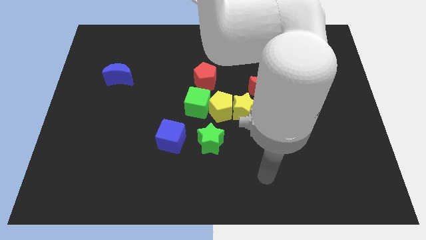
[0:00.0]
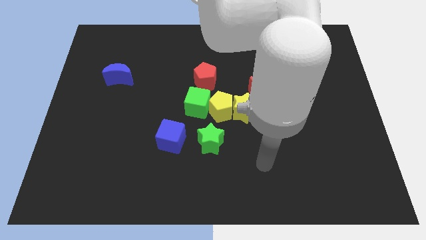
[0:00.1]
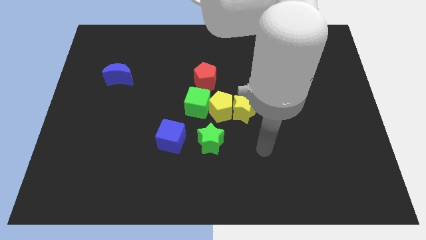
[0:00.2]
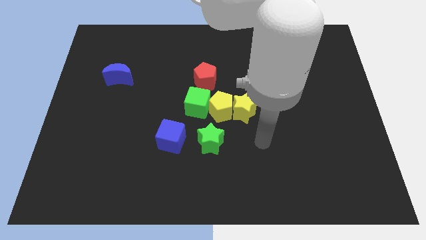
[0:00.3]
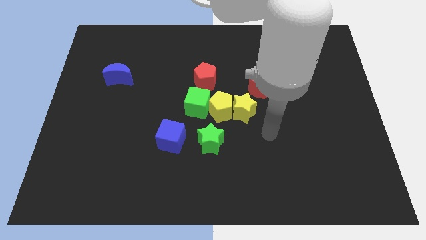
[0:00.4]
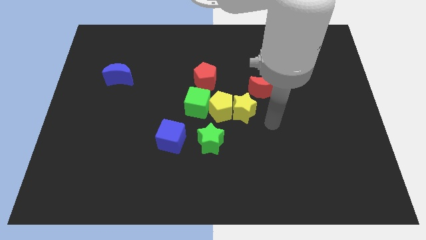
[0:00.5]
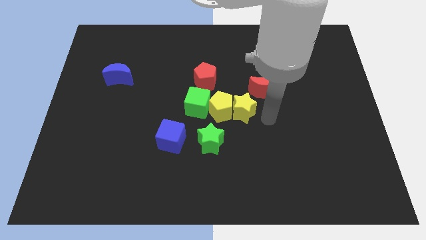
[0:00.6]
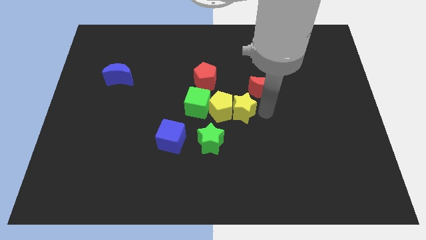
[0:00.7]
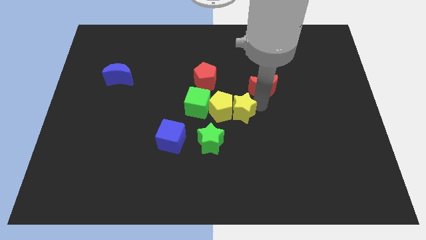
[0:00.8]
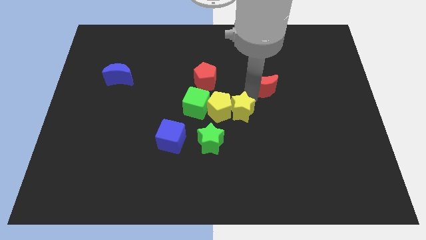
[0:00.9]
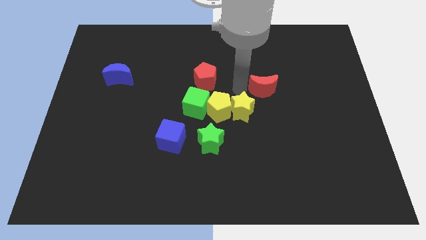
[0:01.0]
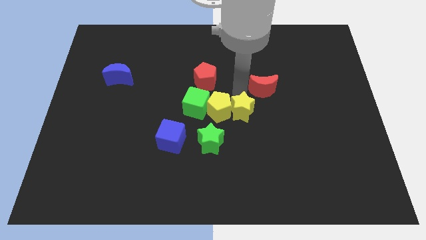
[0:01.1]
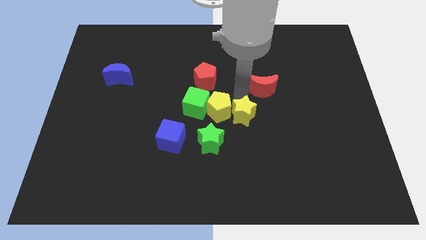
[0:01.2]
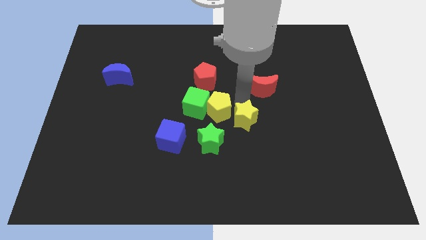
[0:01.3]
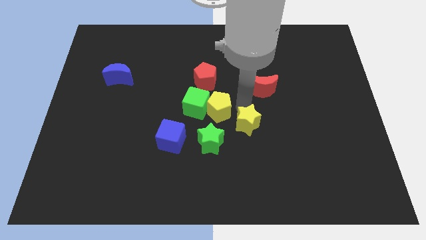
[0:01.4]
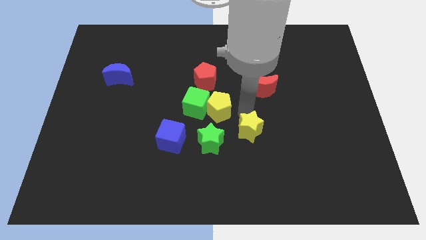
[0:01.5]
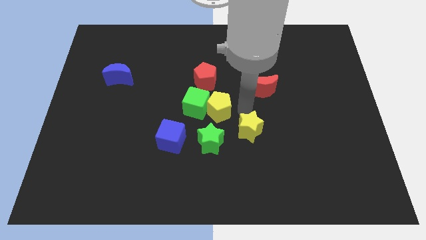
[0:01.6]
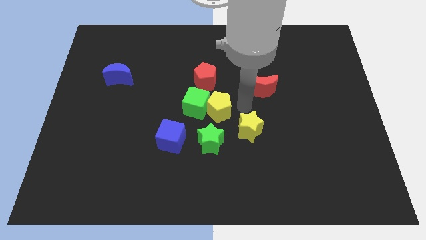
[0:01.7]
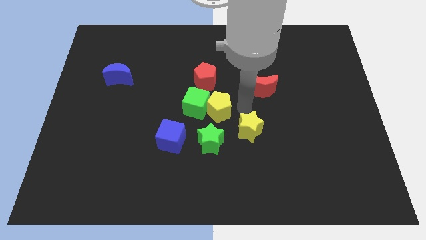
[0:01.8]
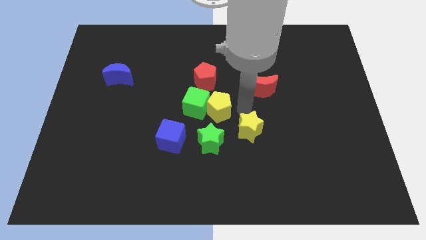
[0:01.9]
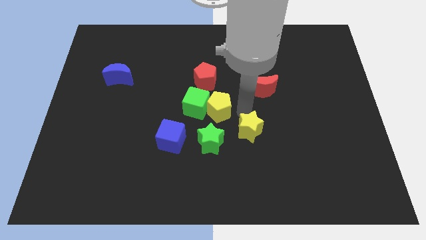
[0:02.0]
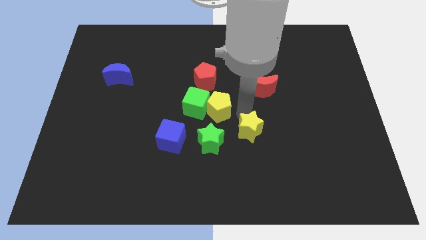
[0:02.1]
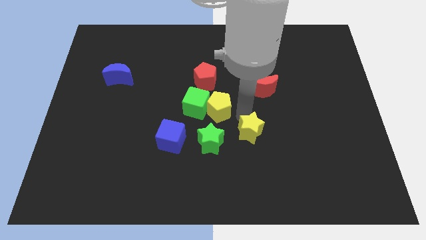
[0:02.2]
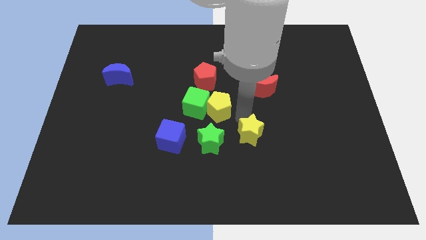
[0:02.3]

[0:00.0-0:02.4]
separate the yellow star from the yellow pentagon and red moon

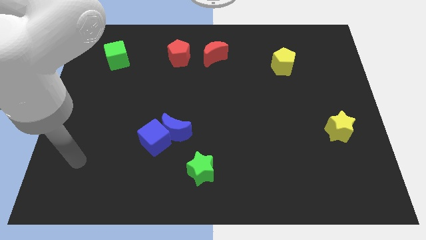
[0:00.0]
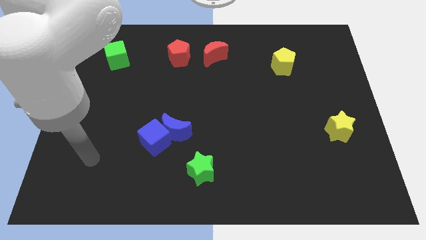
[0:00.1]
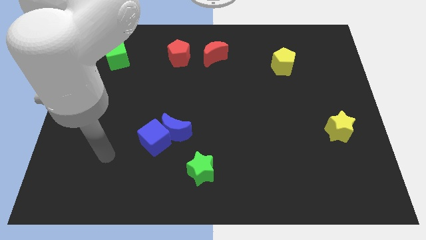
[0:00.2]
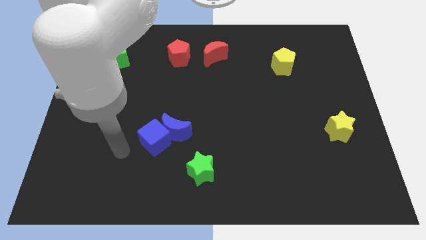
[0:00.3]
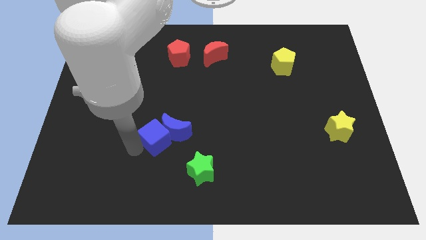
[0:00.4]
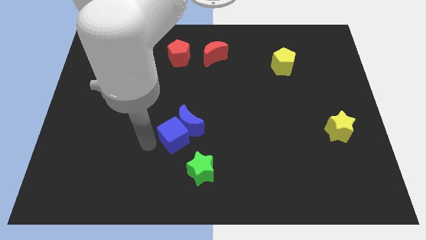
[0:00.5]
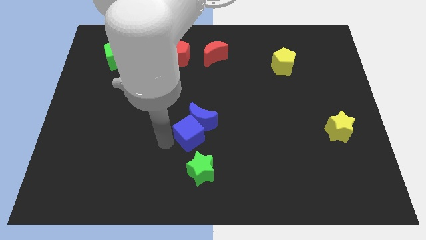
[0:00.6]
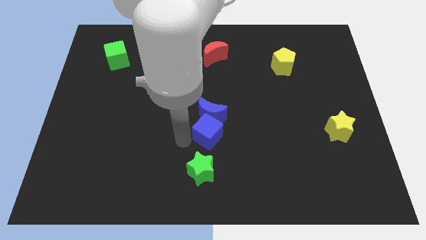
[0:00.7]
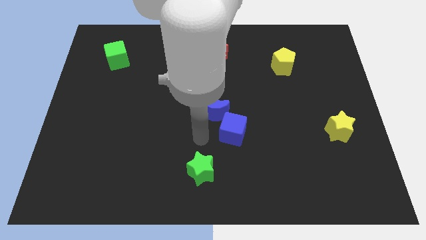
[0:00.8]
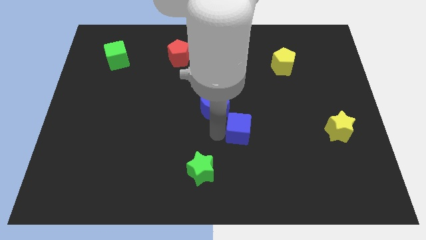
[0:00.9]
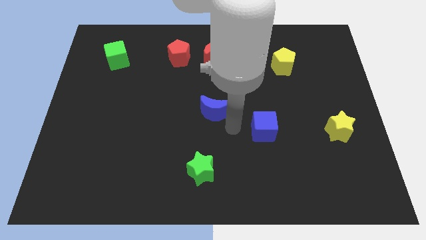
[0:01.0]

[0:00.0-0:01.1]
move the blue moon away from the blue cube

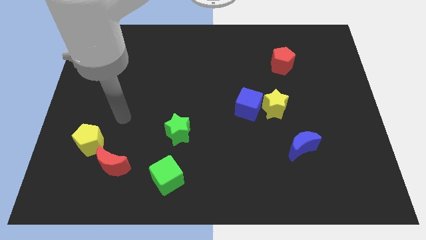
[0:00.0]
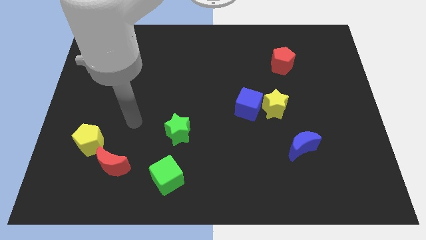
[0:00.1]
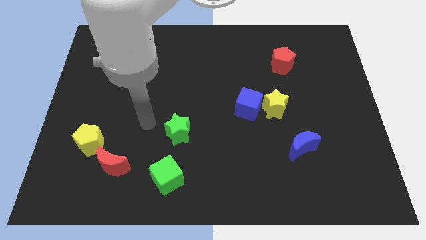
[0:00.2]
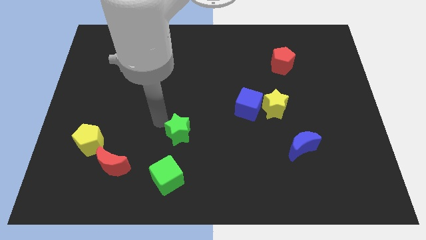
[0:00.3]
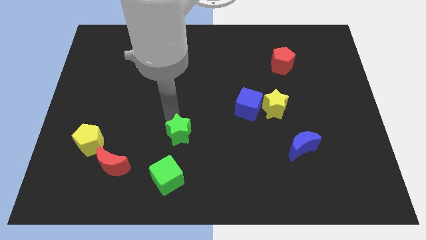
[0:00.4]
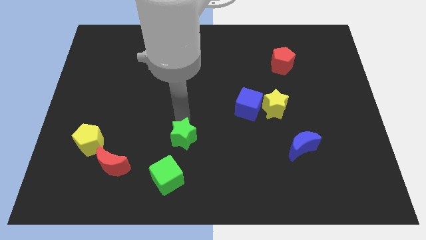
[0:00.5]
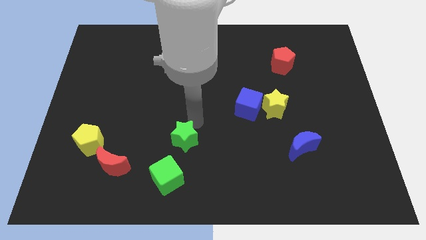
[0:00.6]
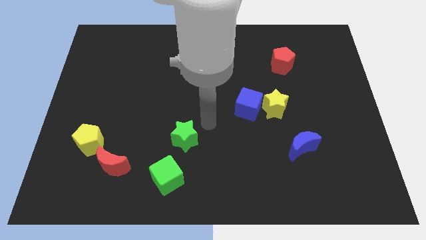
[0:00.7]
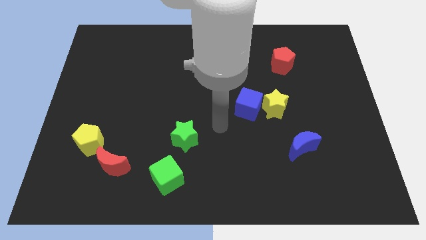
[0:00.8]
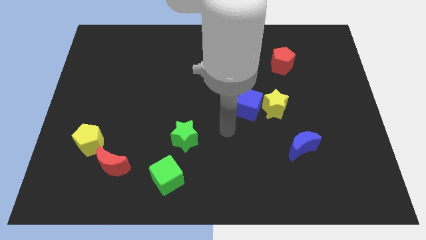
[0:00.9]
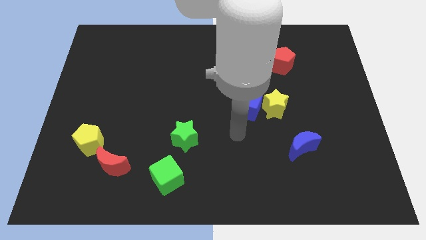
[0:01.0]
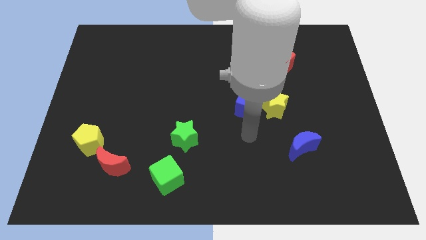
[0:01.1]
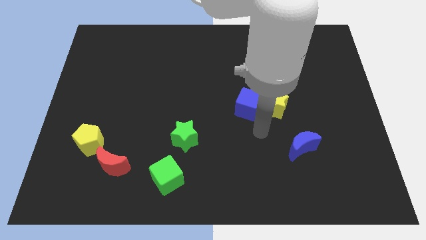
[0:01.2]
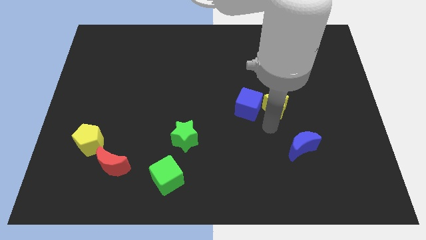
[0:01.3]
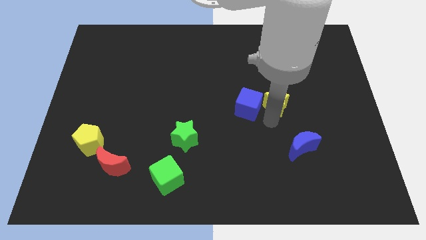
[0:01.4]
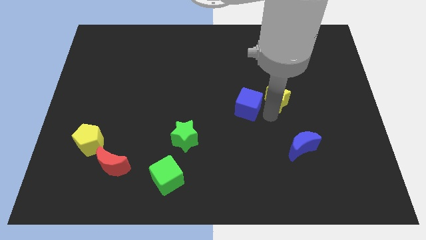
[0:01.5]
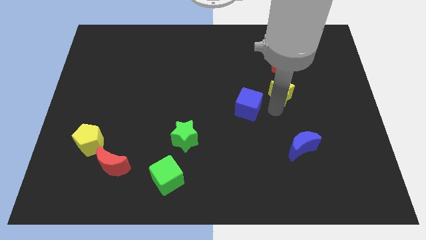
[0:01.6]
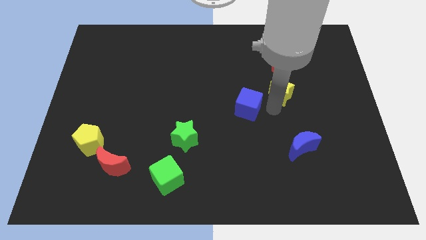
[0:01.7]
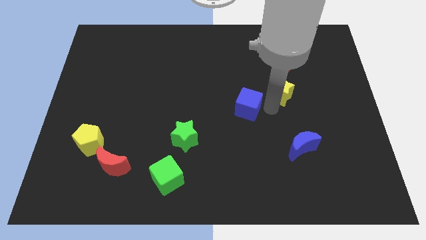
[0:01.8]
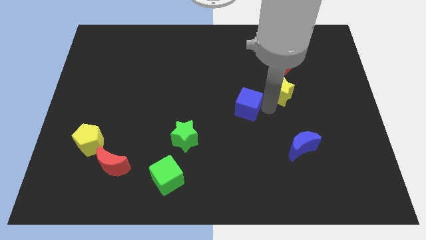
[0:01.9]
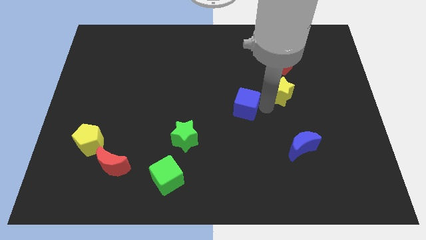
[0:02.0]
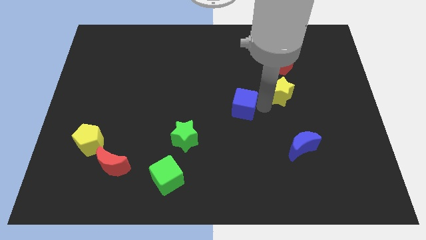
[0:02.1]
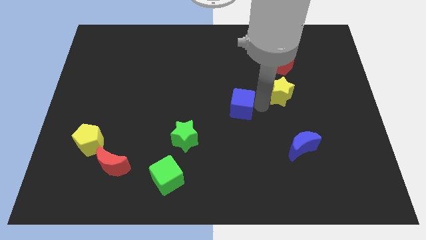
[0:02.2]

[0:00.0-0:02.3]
move the blue cube away from the yellow star

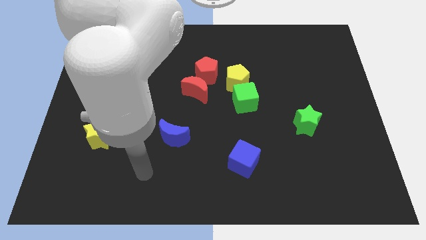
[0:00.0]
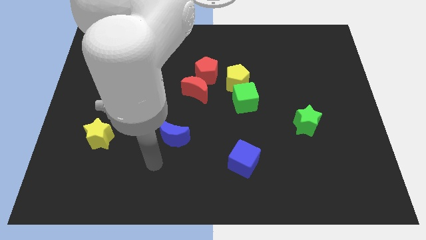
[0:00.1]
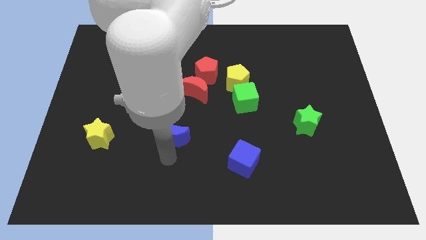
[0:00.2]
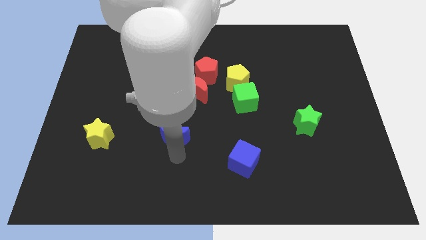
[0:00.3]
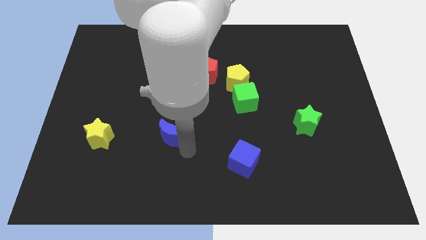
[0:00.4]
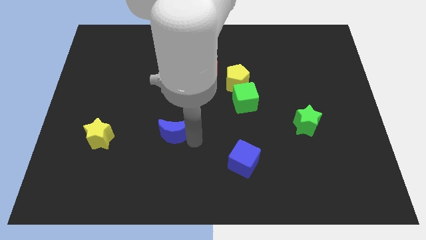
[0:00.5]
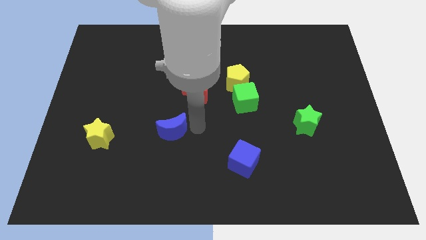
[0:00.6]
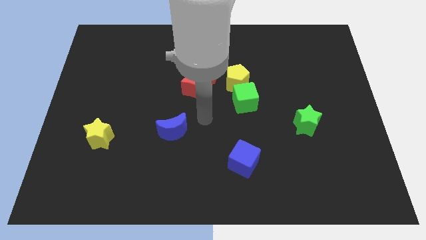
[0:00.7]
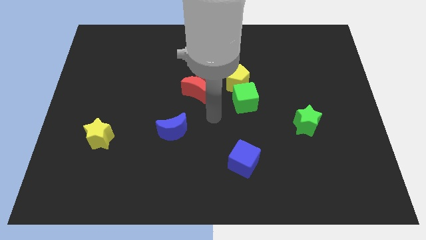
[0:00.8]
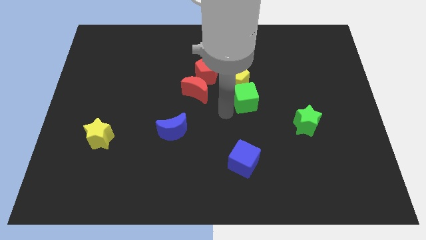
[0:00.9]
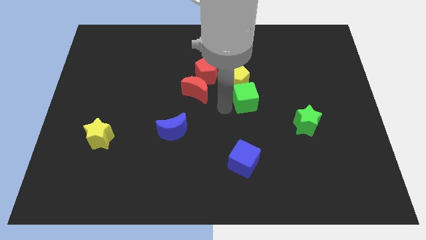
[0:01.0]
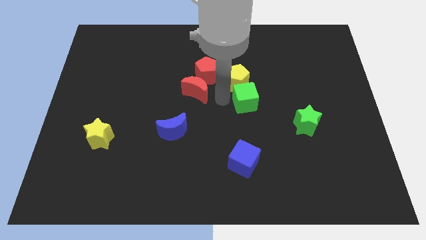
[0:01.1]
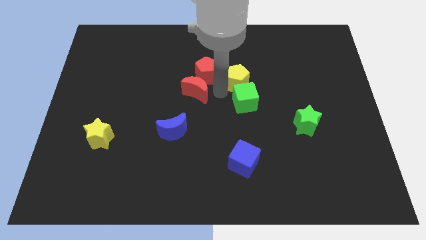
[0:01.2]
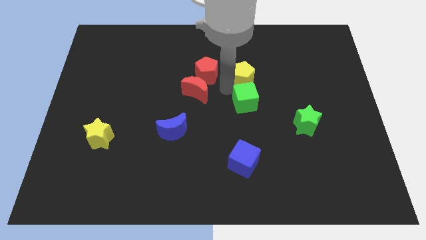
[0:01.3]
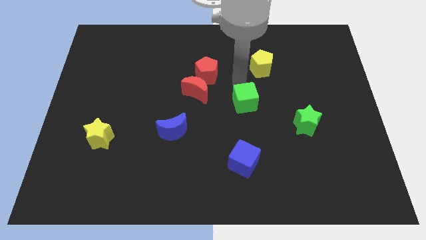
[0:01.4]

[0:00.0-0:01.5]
move the green cube away from the yellow pentagon

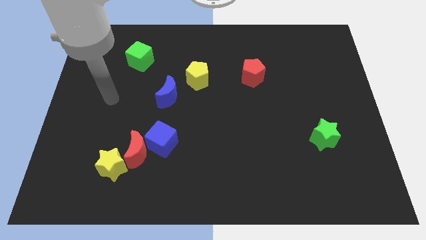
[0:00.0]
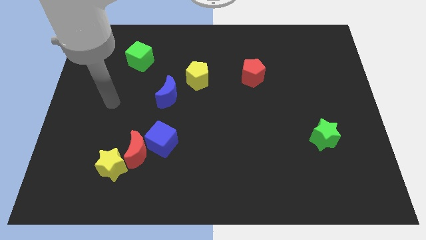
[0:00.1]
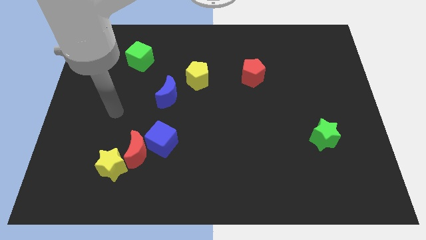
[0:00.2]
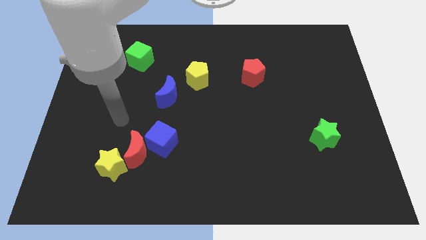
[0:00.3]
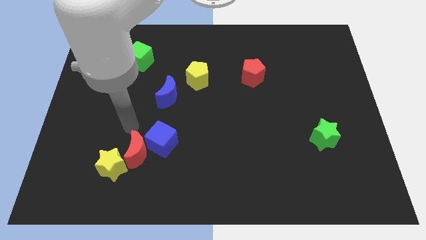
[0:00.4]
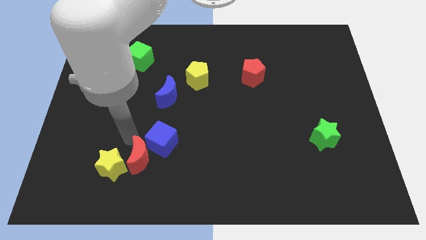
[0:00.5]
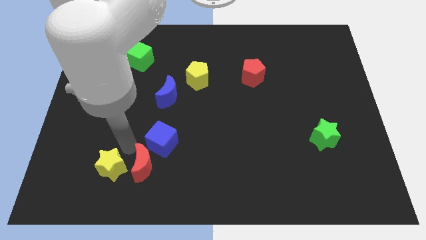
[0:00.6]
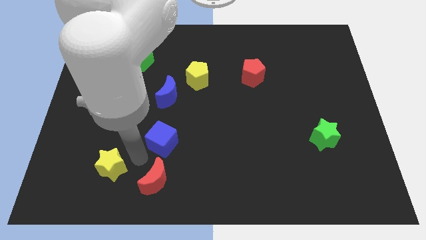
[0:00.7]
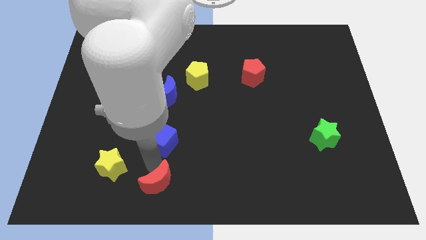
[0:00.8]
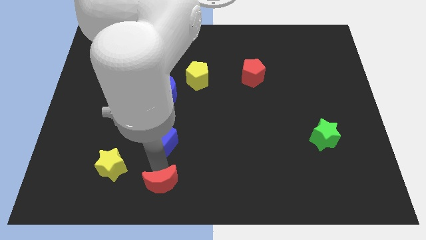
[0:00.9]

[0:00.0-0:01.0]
pull the blue cube apart from the red moon

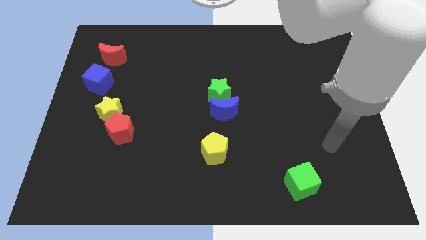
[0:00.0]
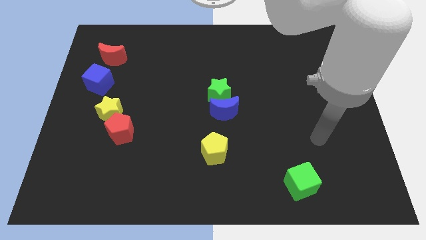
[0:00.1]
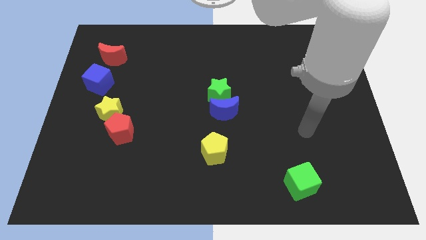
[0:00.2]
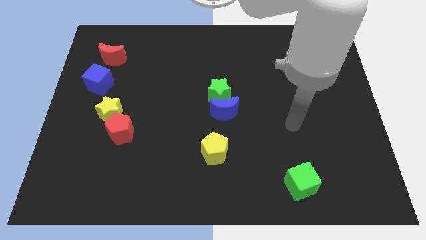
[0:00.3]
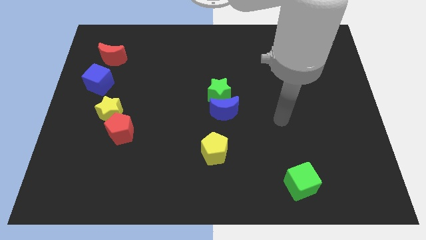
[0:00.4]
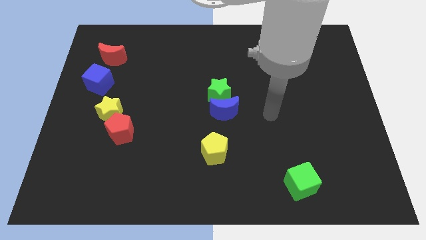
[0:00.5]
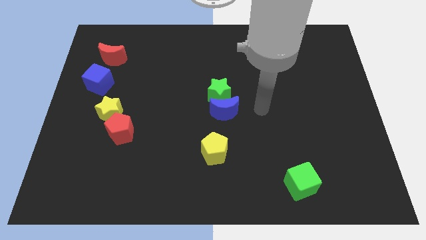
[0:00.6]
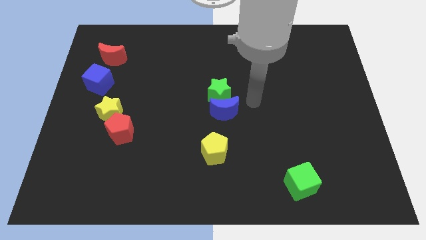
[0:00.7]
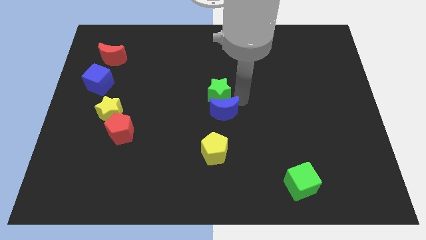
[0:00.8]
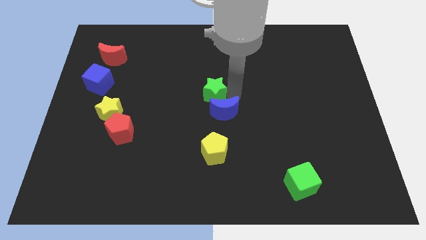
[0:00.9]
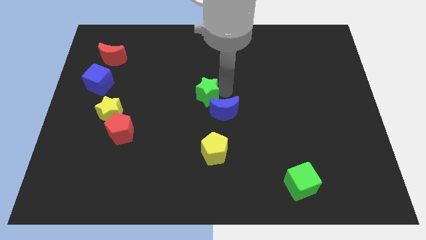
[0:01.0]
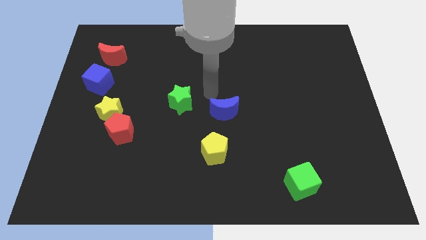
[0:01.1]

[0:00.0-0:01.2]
move the blue moon away from the green star
